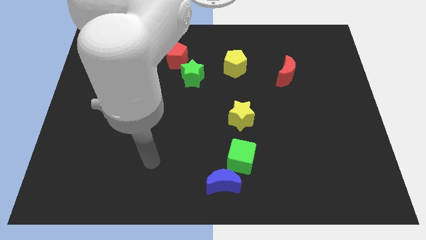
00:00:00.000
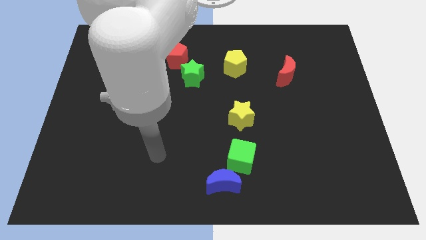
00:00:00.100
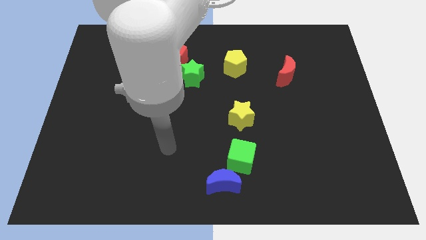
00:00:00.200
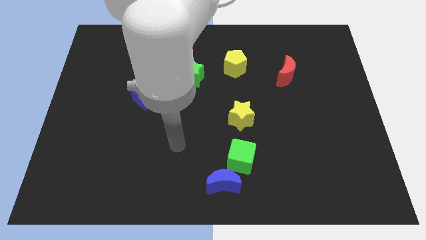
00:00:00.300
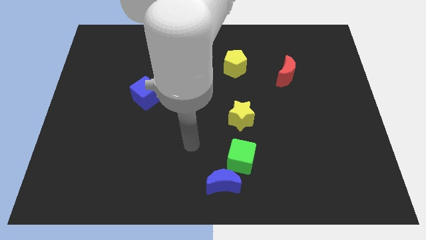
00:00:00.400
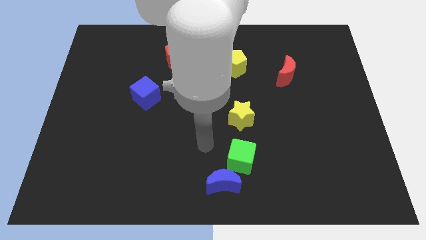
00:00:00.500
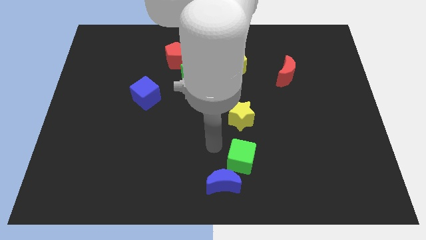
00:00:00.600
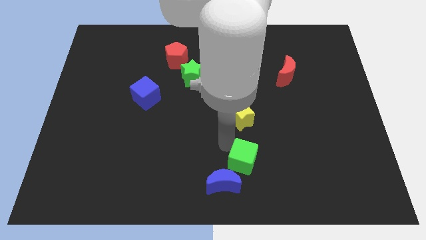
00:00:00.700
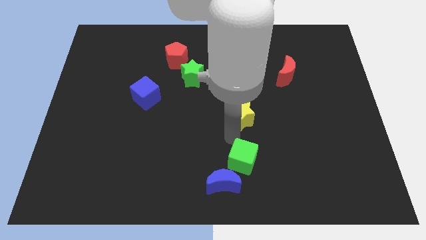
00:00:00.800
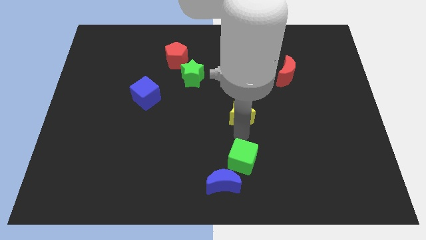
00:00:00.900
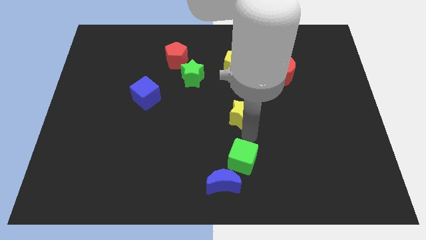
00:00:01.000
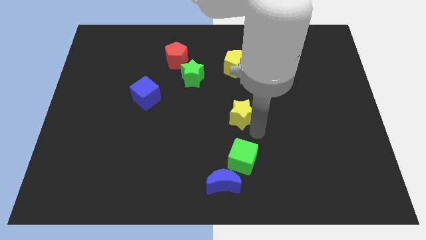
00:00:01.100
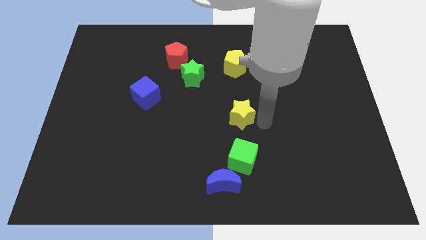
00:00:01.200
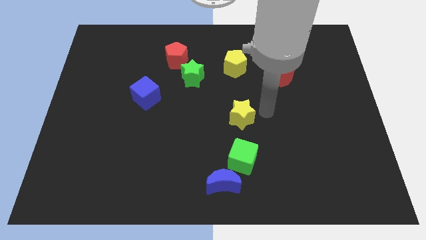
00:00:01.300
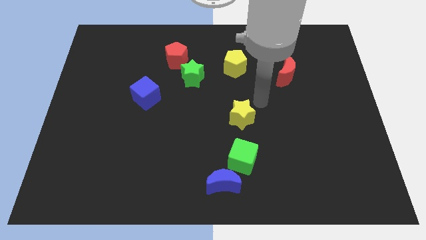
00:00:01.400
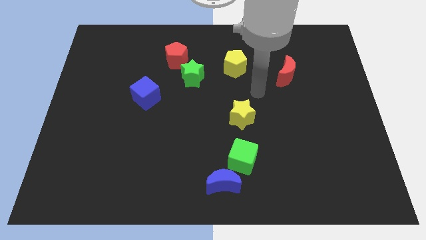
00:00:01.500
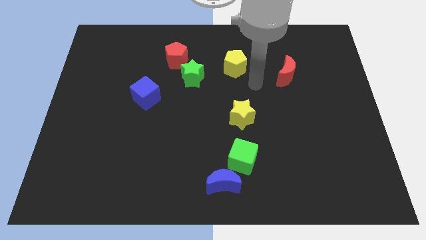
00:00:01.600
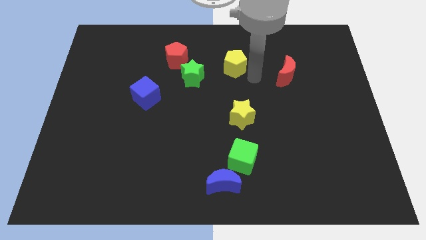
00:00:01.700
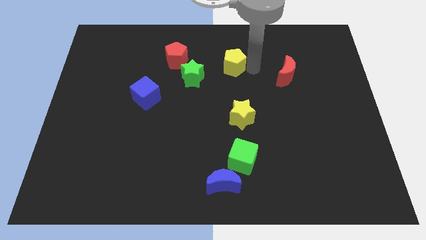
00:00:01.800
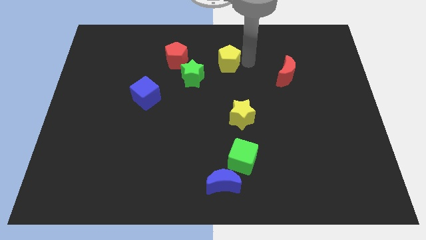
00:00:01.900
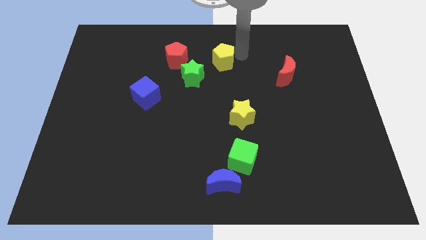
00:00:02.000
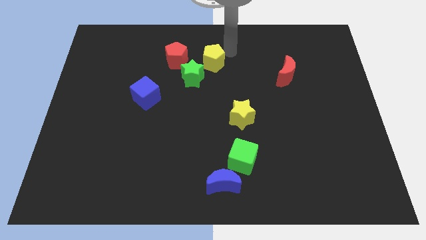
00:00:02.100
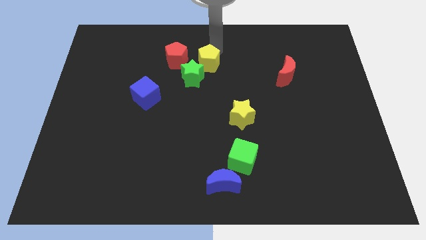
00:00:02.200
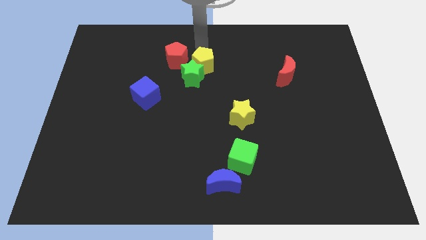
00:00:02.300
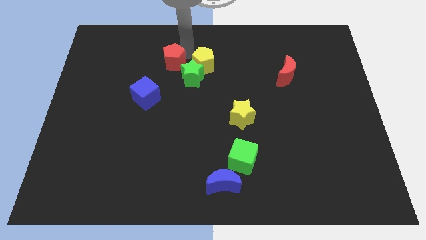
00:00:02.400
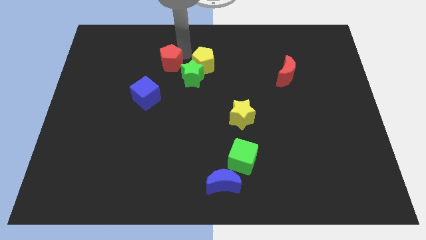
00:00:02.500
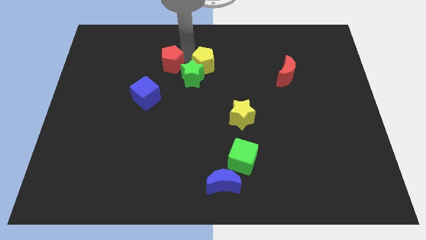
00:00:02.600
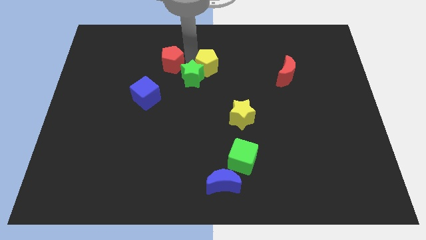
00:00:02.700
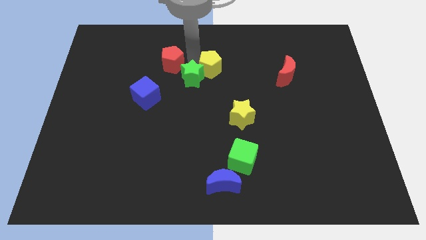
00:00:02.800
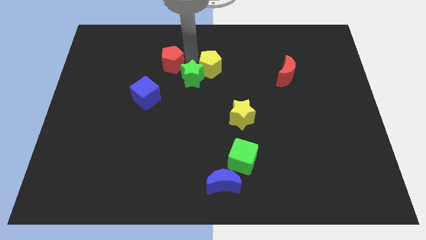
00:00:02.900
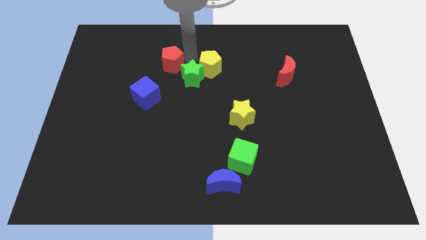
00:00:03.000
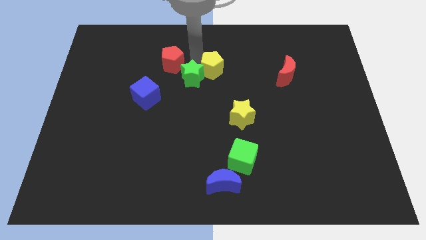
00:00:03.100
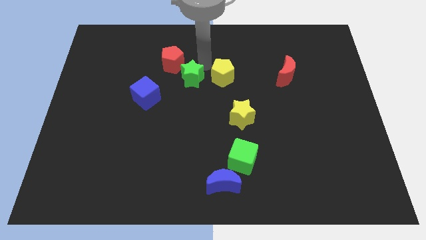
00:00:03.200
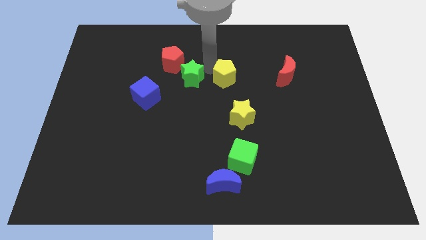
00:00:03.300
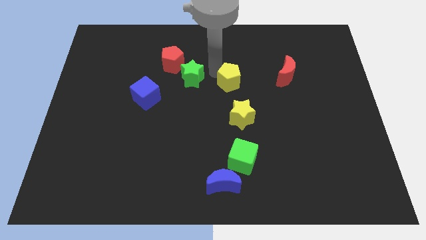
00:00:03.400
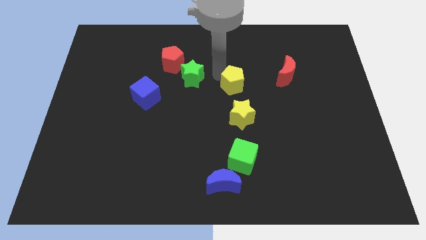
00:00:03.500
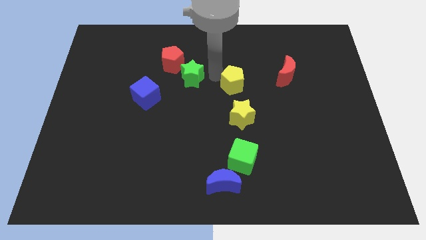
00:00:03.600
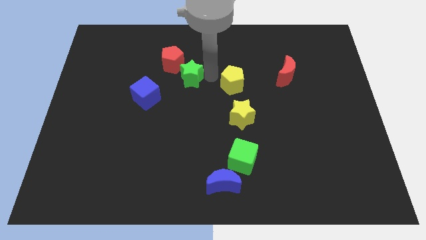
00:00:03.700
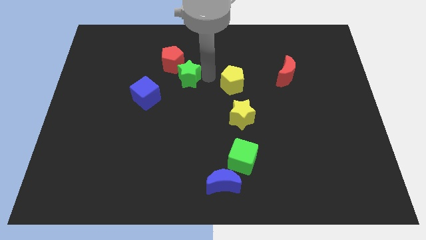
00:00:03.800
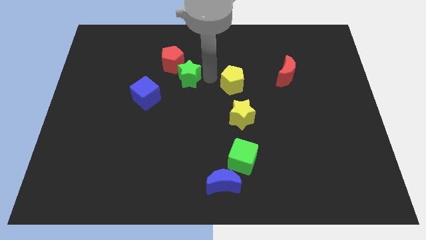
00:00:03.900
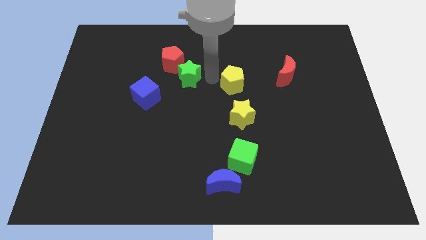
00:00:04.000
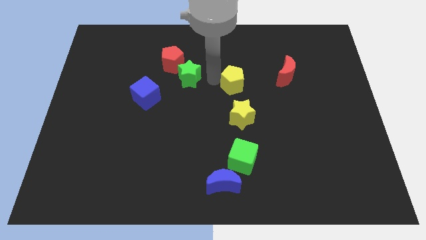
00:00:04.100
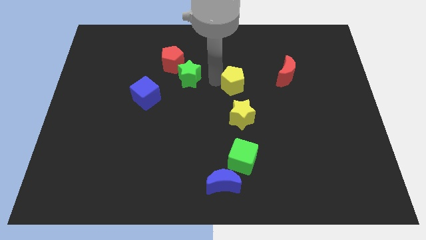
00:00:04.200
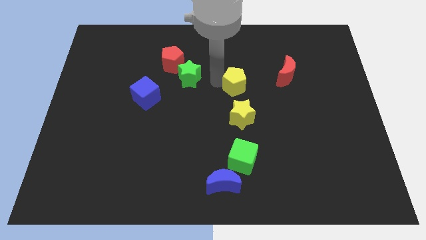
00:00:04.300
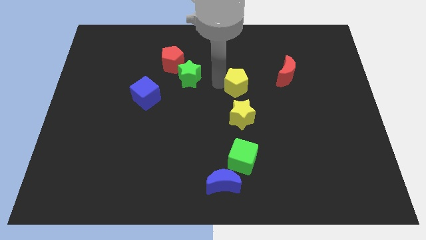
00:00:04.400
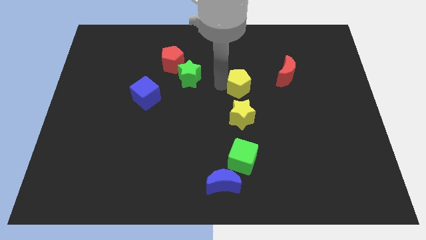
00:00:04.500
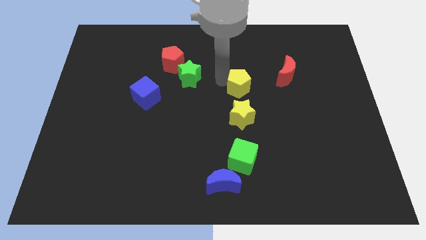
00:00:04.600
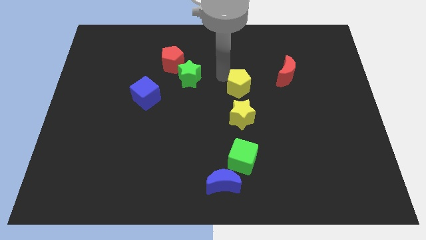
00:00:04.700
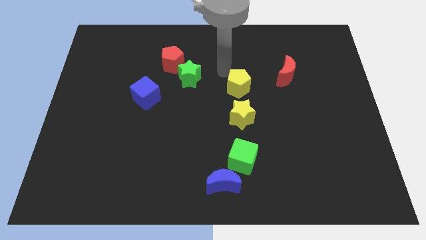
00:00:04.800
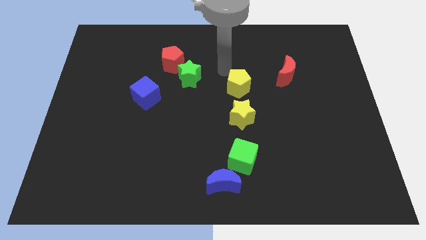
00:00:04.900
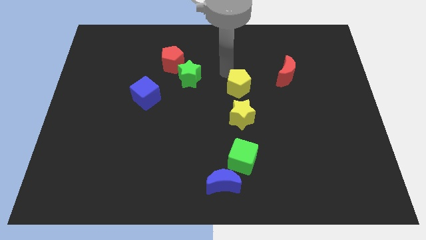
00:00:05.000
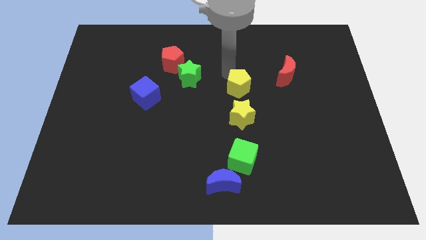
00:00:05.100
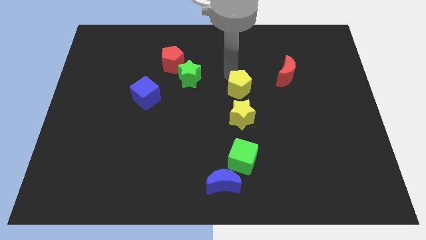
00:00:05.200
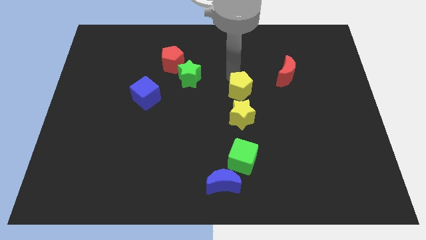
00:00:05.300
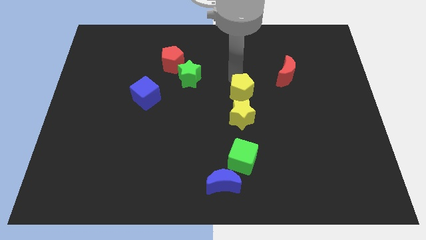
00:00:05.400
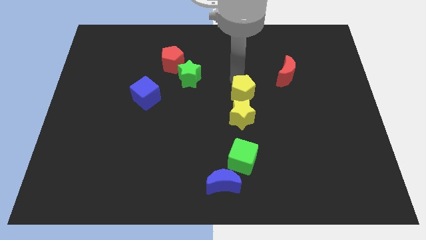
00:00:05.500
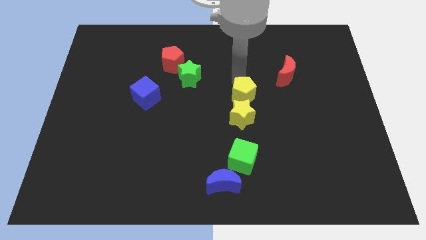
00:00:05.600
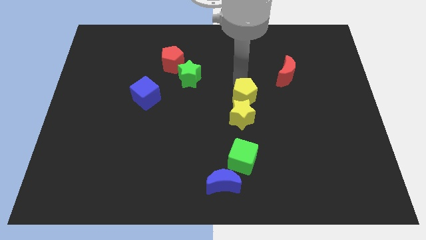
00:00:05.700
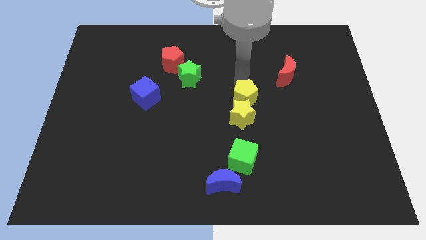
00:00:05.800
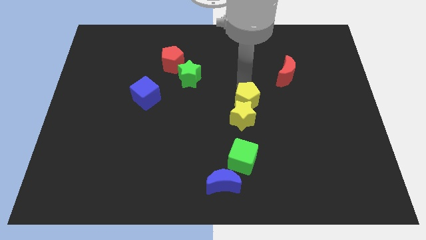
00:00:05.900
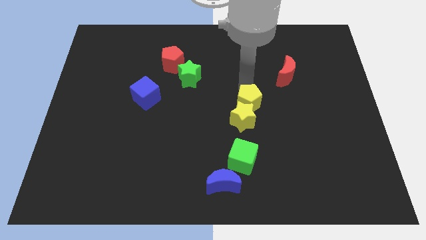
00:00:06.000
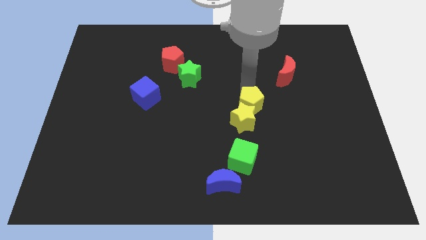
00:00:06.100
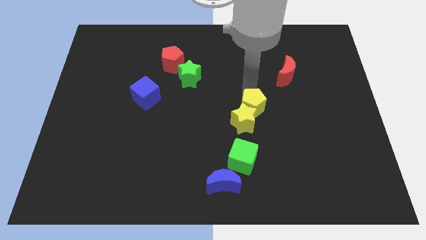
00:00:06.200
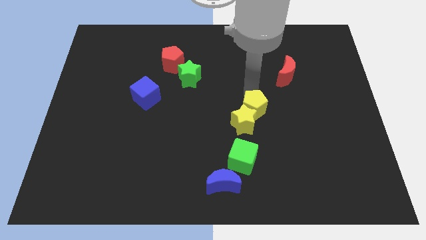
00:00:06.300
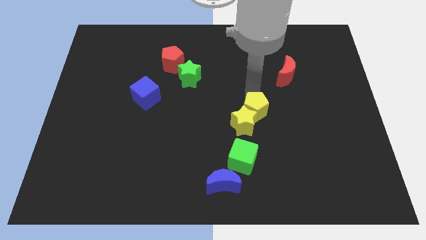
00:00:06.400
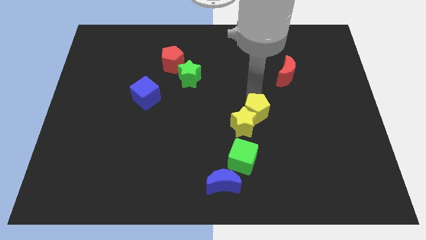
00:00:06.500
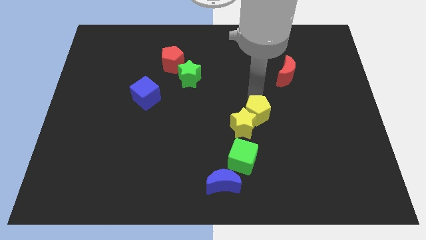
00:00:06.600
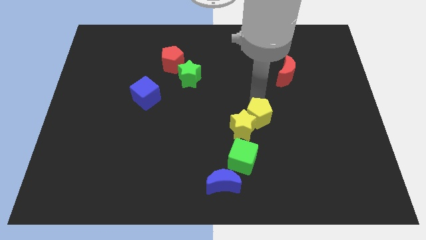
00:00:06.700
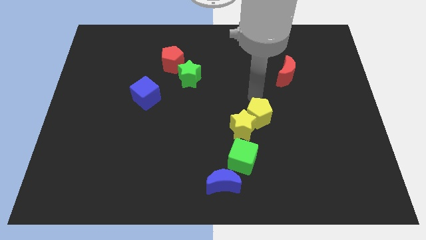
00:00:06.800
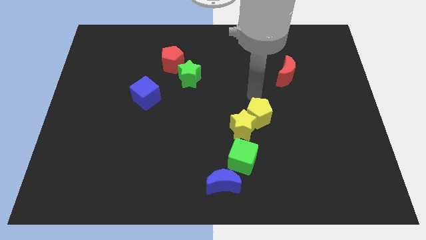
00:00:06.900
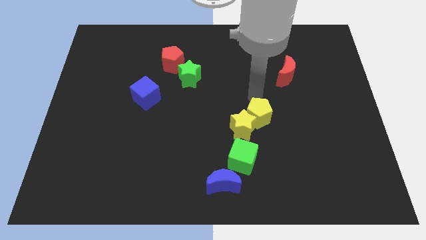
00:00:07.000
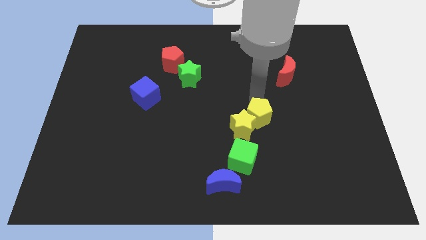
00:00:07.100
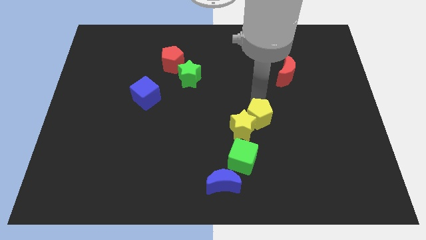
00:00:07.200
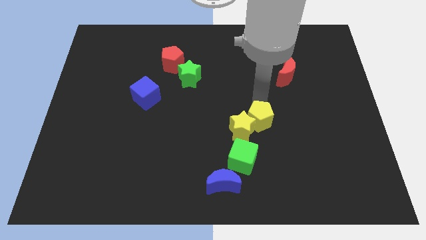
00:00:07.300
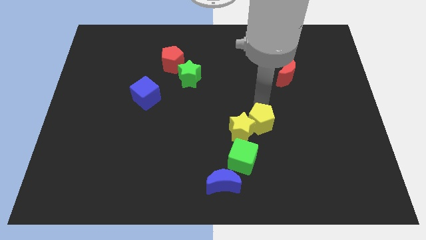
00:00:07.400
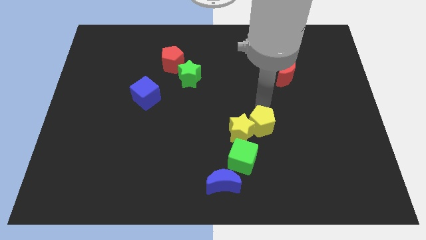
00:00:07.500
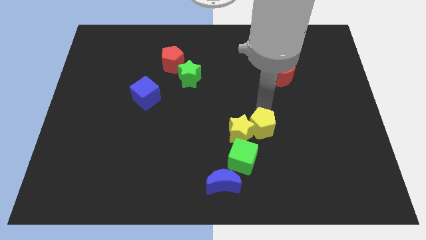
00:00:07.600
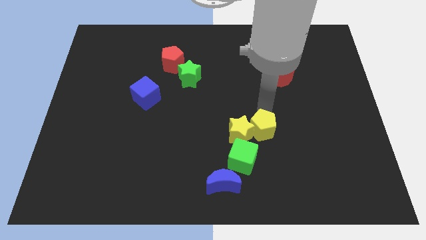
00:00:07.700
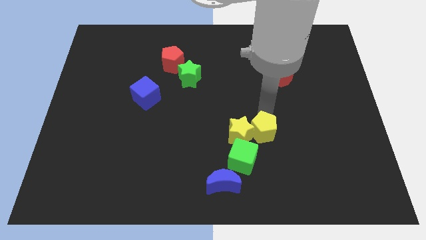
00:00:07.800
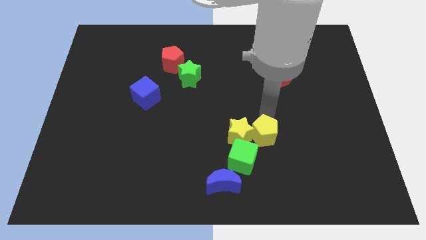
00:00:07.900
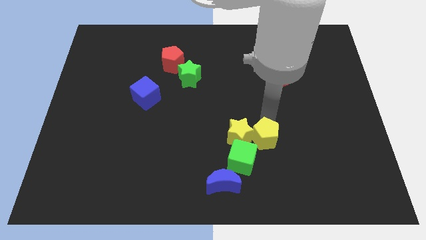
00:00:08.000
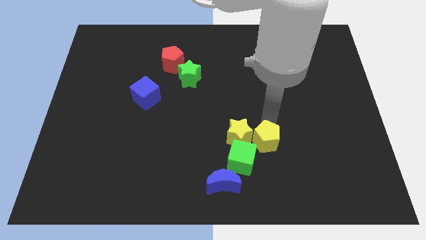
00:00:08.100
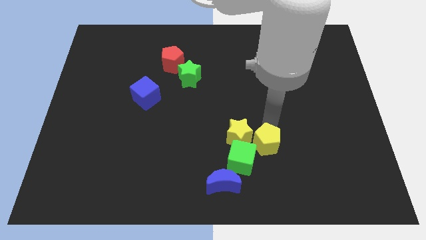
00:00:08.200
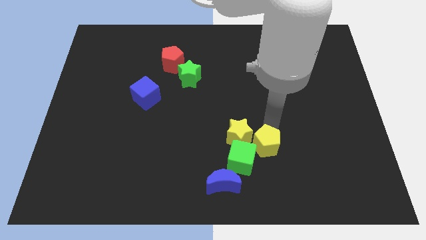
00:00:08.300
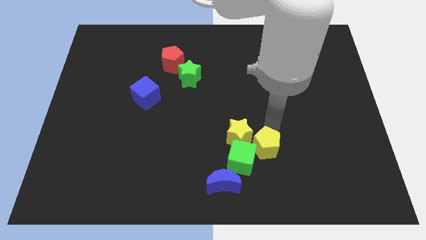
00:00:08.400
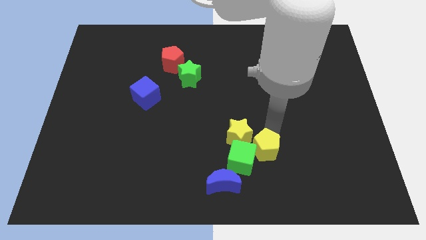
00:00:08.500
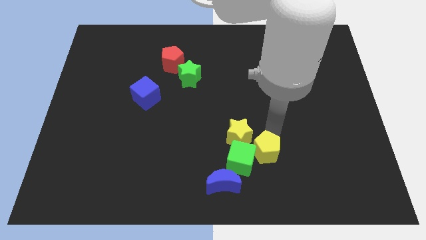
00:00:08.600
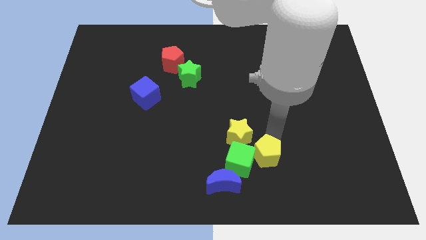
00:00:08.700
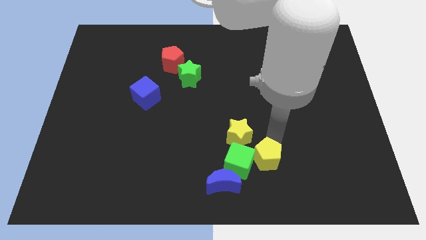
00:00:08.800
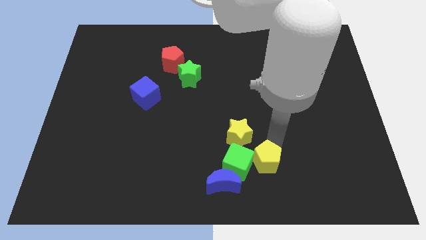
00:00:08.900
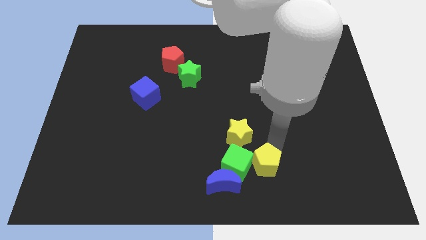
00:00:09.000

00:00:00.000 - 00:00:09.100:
push the yellow pentagon to the right of the blue moon
